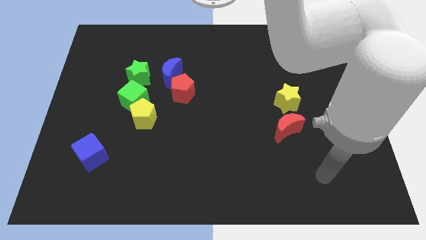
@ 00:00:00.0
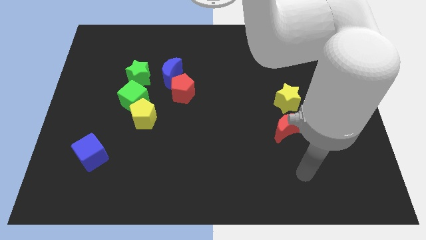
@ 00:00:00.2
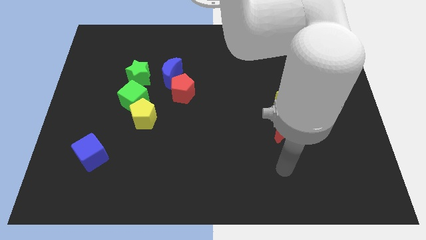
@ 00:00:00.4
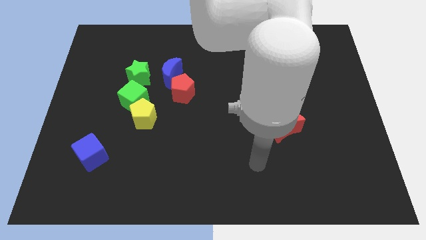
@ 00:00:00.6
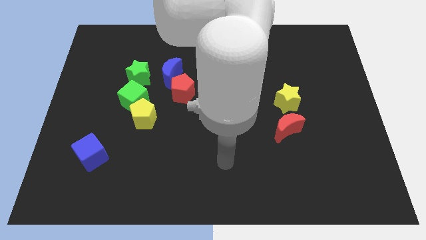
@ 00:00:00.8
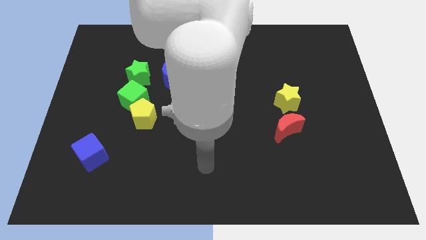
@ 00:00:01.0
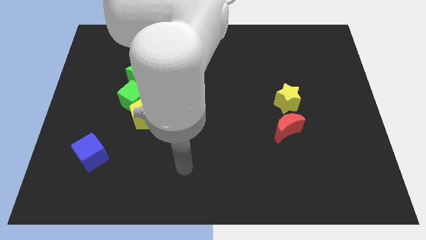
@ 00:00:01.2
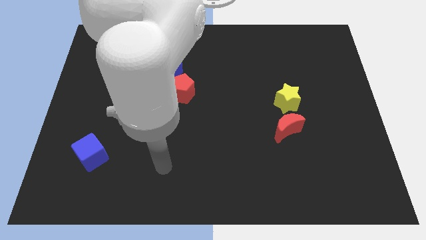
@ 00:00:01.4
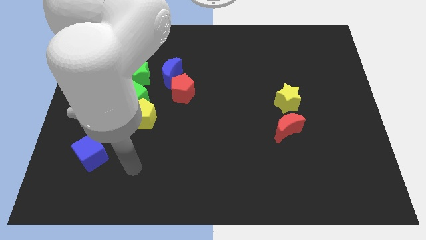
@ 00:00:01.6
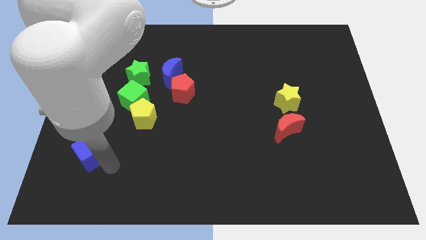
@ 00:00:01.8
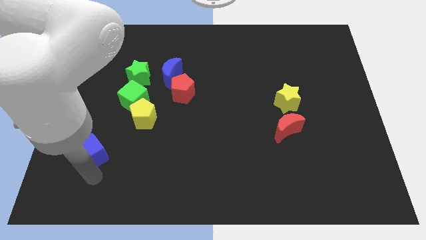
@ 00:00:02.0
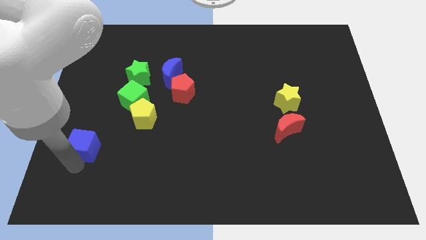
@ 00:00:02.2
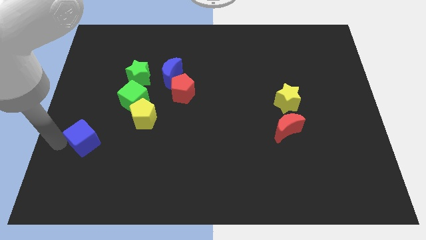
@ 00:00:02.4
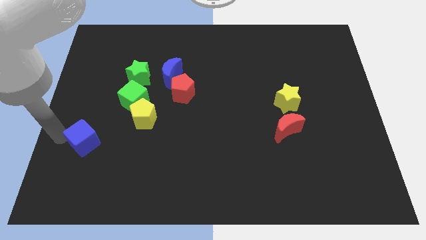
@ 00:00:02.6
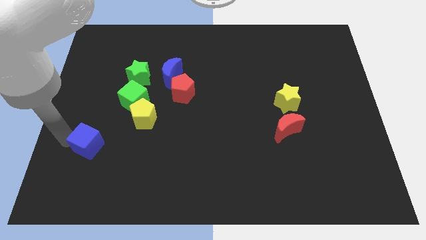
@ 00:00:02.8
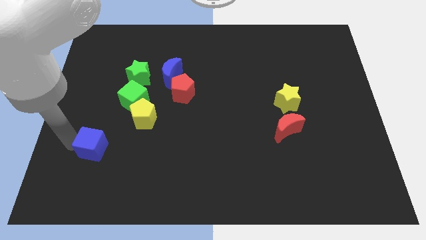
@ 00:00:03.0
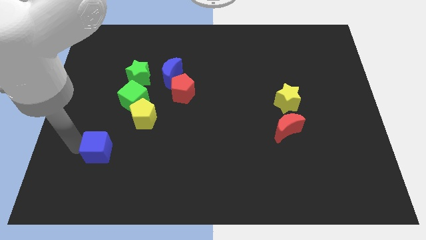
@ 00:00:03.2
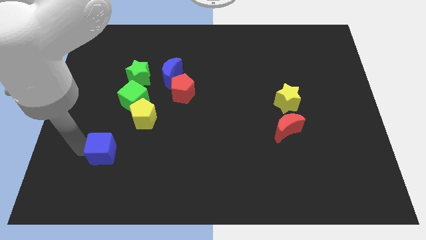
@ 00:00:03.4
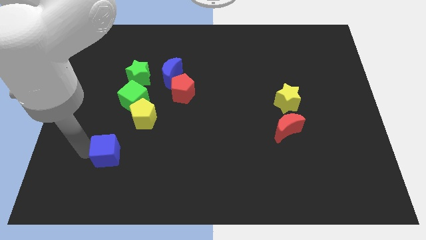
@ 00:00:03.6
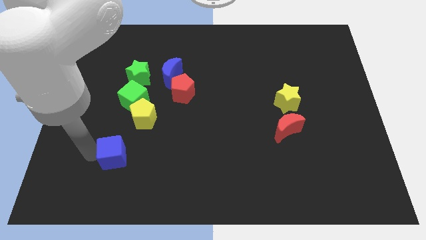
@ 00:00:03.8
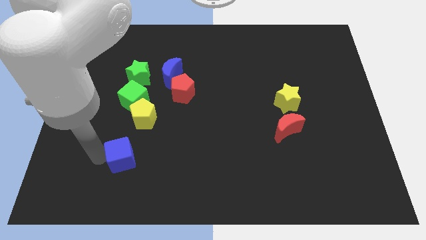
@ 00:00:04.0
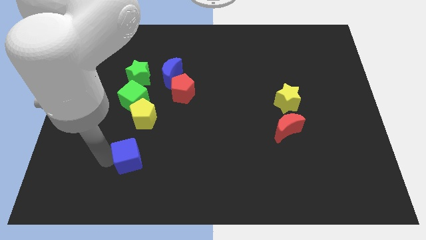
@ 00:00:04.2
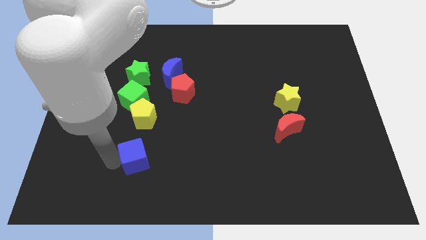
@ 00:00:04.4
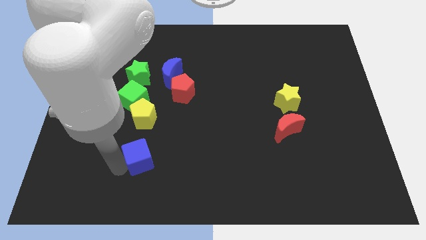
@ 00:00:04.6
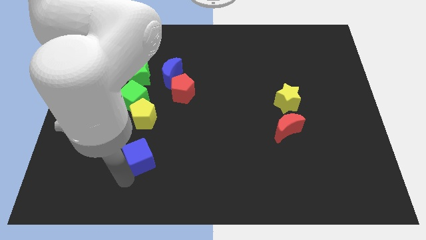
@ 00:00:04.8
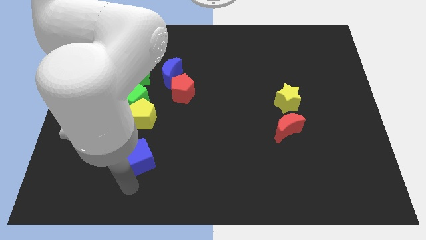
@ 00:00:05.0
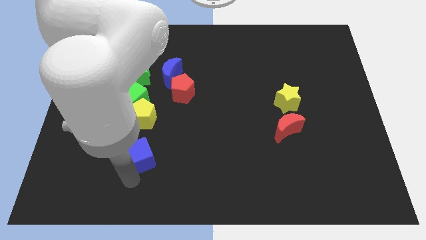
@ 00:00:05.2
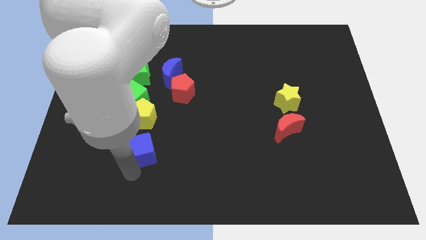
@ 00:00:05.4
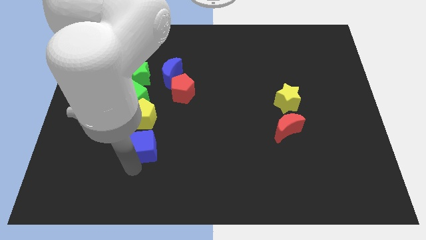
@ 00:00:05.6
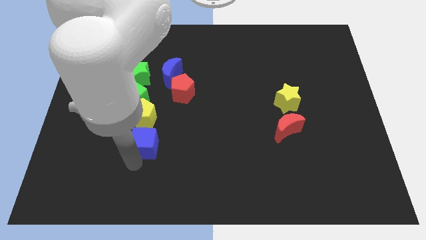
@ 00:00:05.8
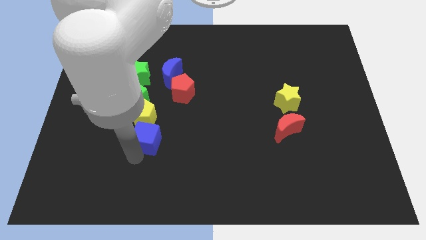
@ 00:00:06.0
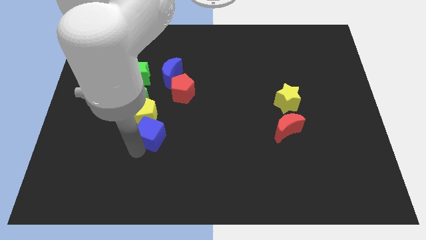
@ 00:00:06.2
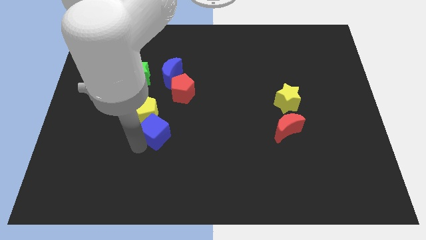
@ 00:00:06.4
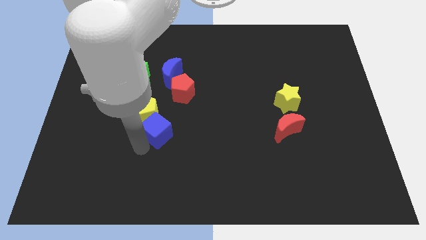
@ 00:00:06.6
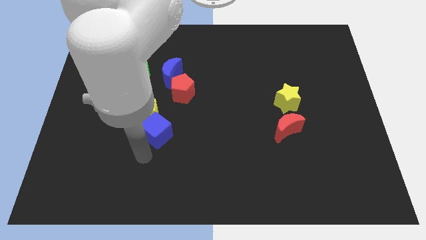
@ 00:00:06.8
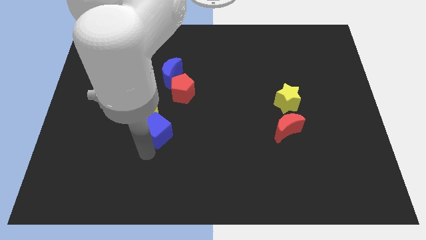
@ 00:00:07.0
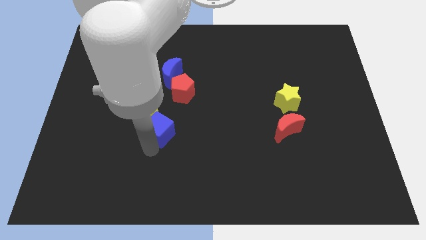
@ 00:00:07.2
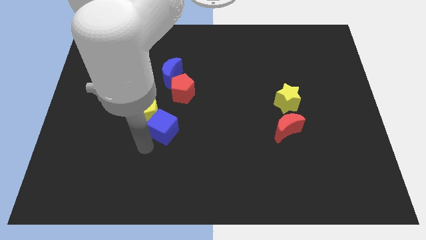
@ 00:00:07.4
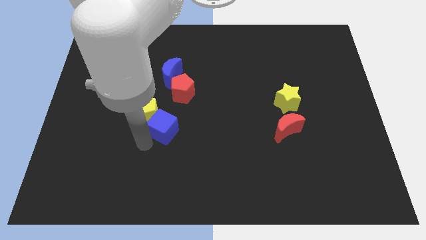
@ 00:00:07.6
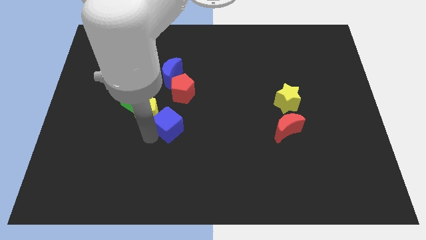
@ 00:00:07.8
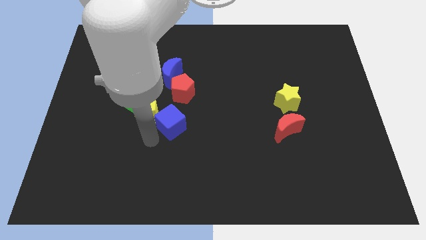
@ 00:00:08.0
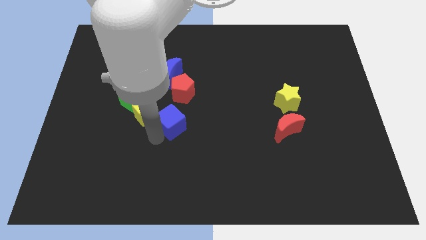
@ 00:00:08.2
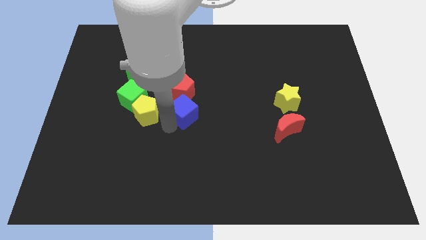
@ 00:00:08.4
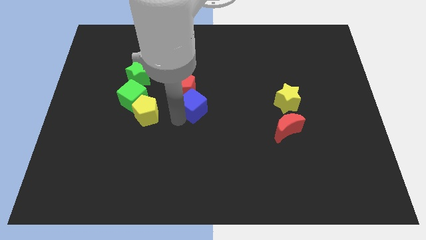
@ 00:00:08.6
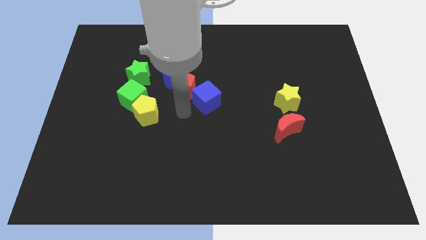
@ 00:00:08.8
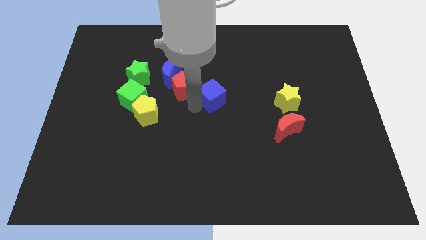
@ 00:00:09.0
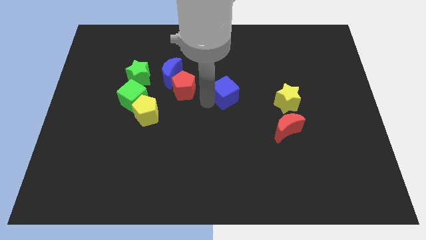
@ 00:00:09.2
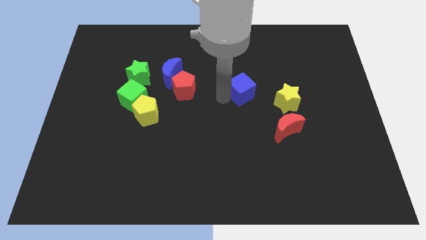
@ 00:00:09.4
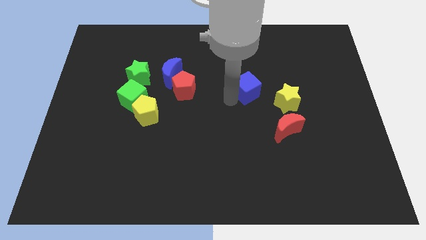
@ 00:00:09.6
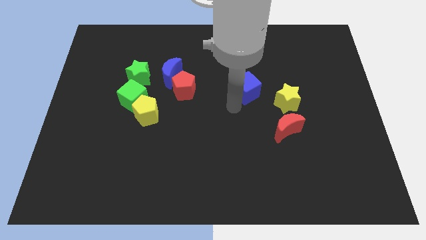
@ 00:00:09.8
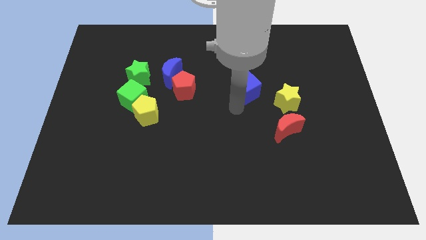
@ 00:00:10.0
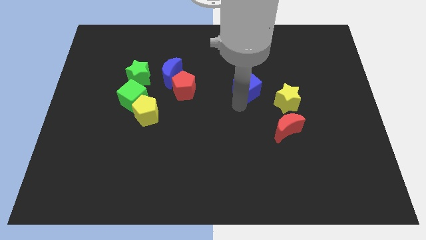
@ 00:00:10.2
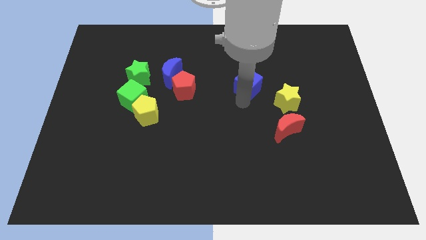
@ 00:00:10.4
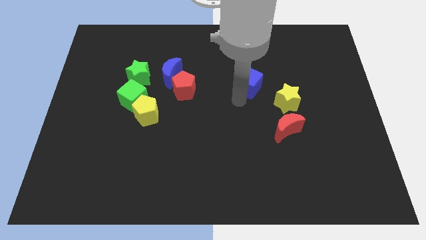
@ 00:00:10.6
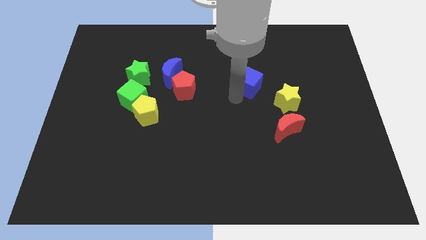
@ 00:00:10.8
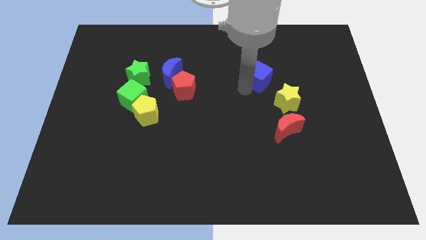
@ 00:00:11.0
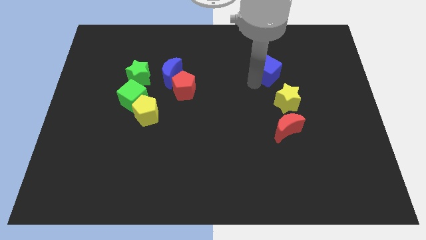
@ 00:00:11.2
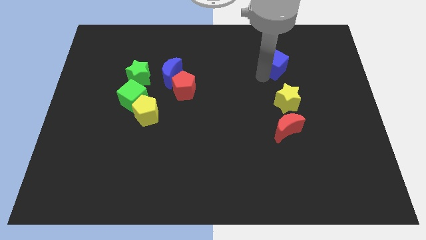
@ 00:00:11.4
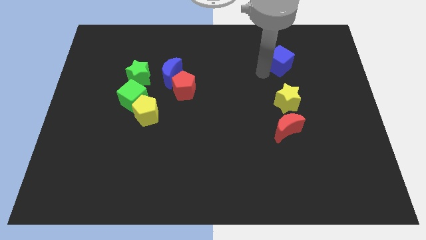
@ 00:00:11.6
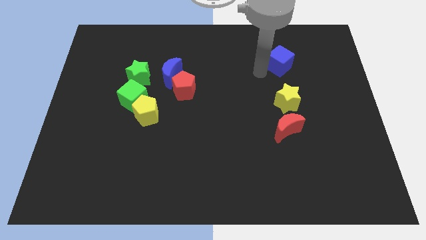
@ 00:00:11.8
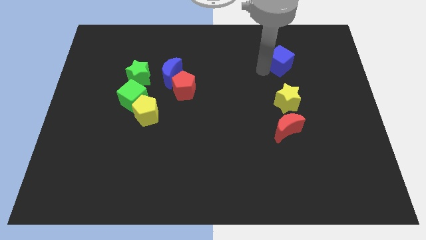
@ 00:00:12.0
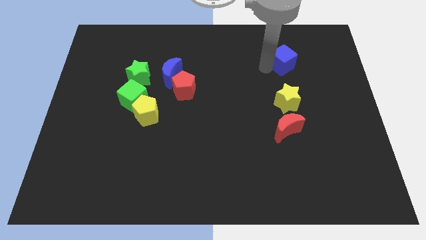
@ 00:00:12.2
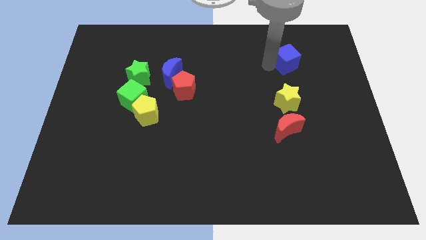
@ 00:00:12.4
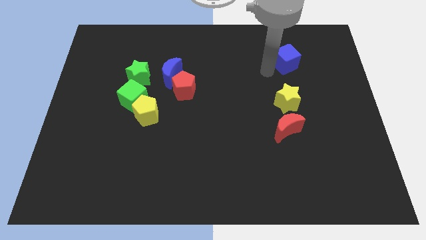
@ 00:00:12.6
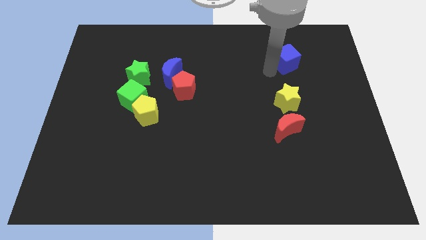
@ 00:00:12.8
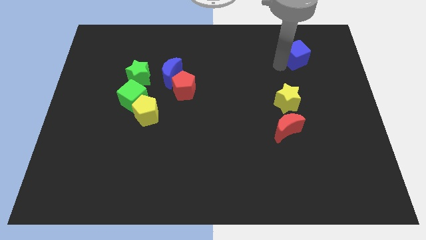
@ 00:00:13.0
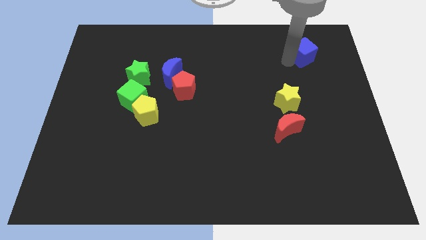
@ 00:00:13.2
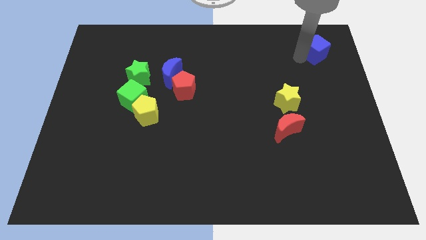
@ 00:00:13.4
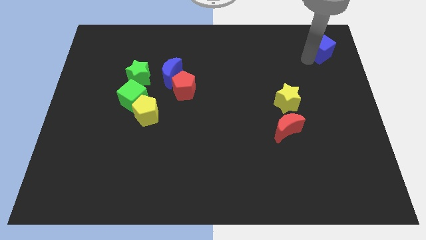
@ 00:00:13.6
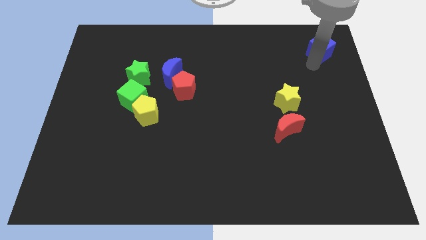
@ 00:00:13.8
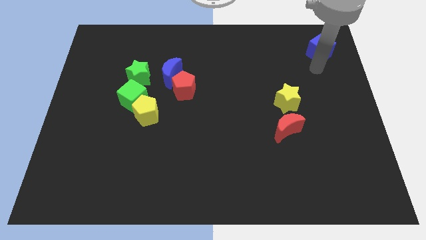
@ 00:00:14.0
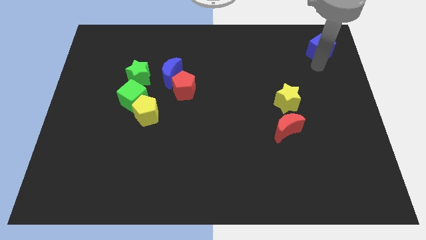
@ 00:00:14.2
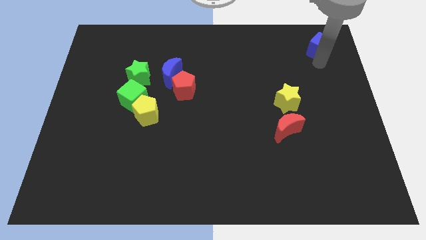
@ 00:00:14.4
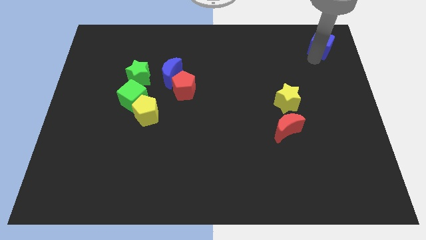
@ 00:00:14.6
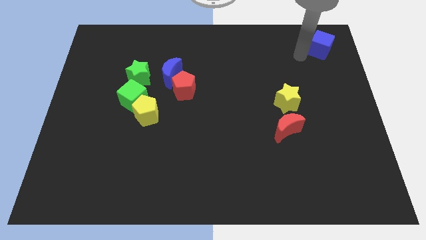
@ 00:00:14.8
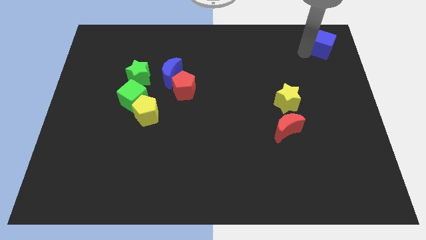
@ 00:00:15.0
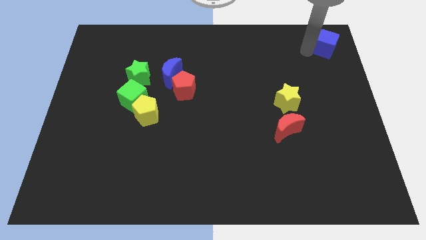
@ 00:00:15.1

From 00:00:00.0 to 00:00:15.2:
push the blue cube to the top right
